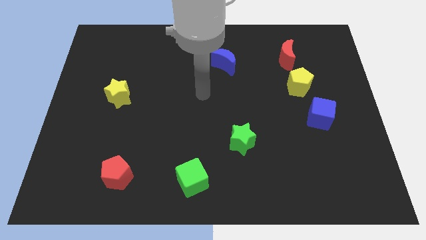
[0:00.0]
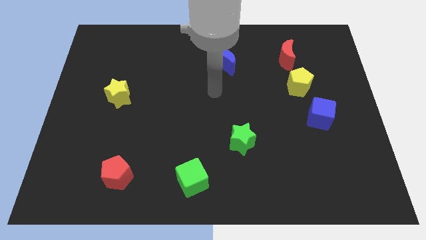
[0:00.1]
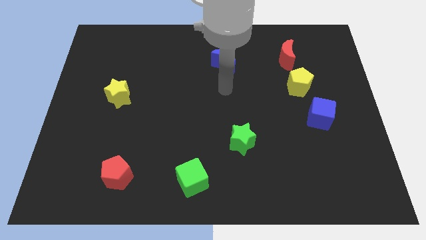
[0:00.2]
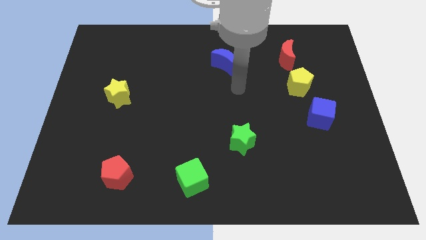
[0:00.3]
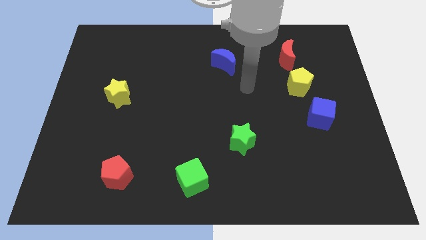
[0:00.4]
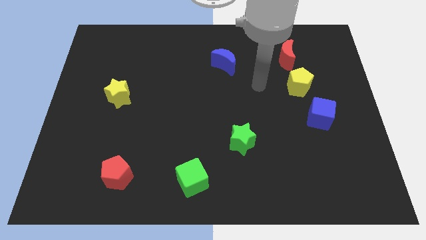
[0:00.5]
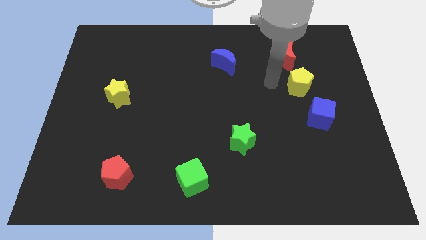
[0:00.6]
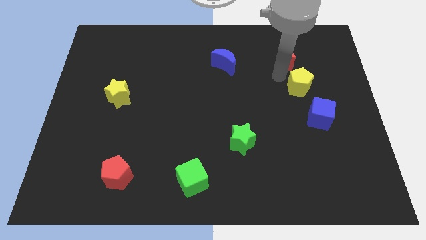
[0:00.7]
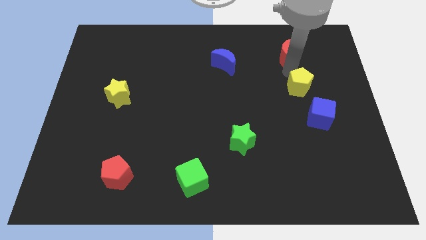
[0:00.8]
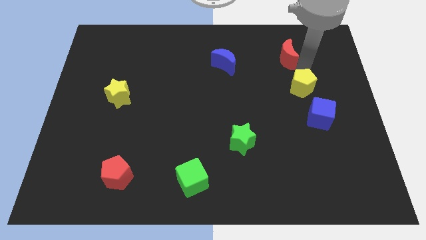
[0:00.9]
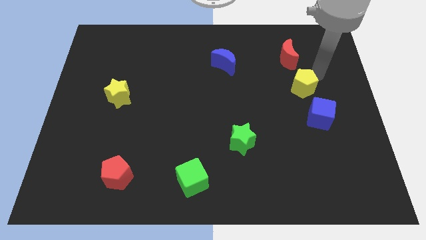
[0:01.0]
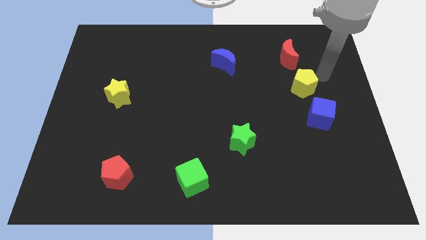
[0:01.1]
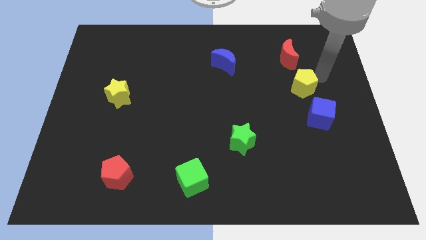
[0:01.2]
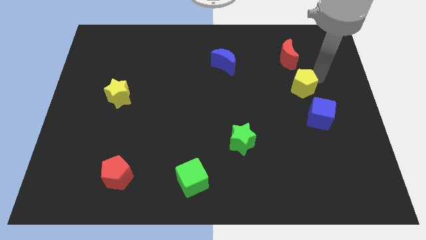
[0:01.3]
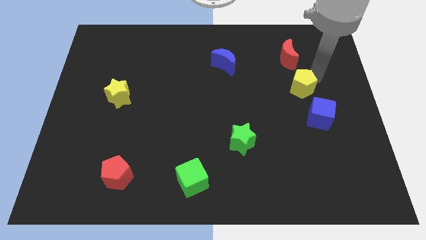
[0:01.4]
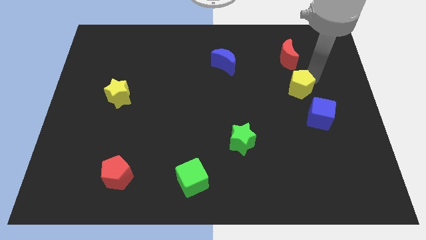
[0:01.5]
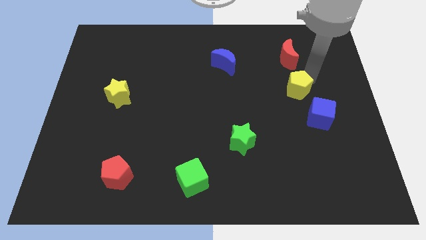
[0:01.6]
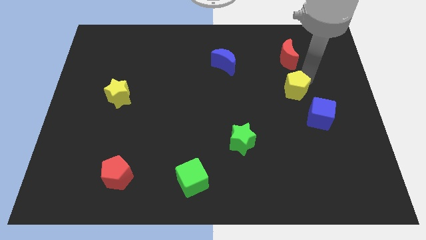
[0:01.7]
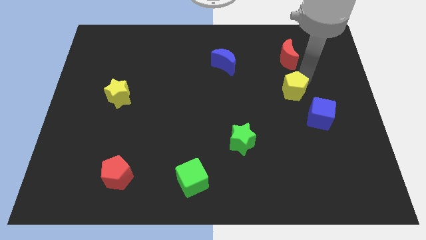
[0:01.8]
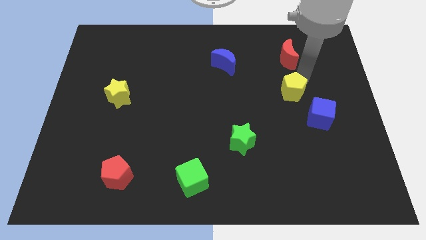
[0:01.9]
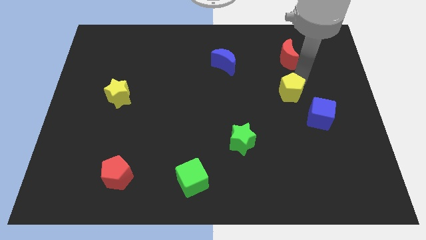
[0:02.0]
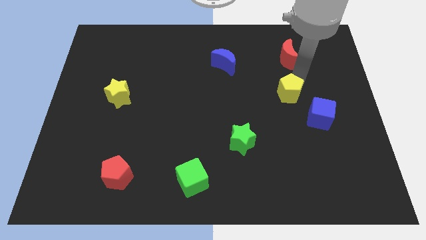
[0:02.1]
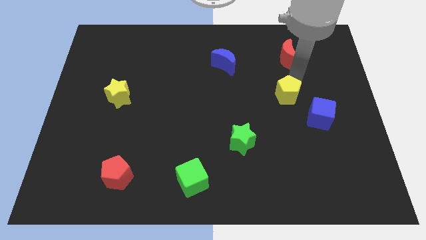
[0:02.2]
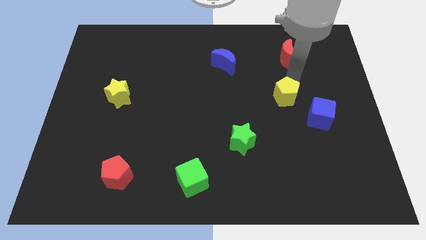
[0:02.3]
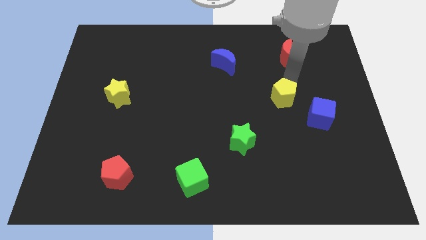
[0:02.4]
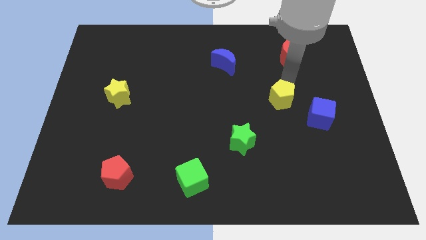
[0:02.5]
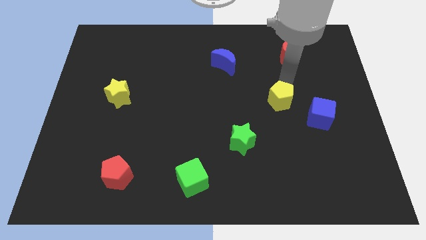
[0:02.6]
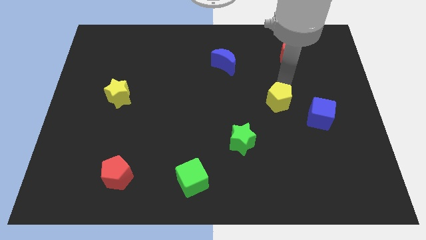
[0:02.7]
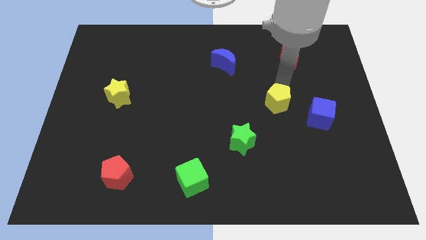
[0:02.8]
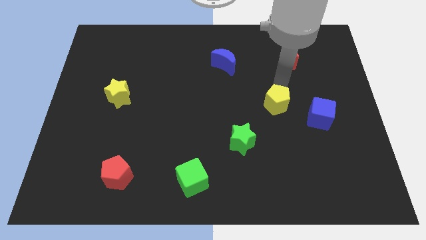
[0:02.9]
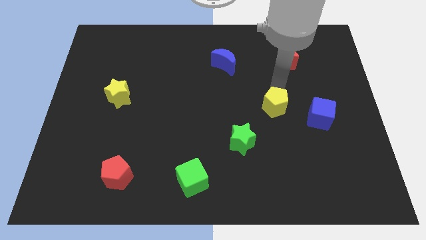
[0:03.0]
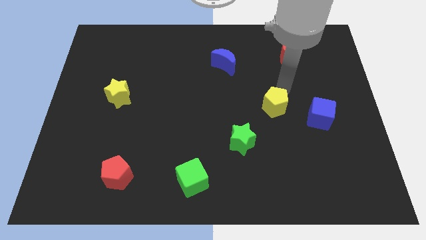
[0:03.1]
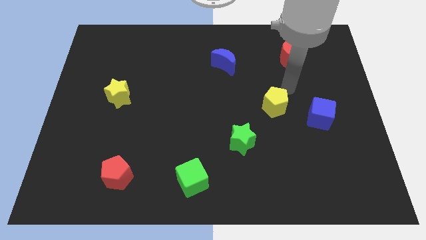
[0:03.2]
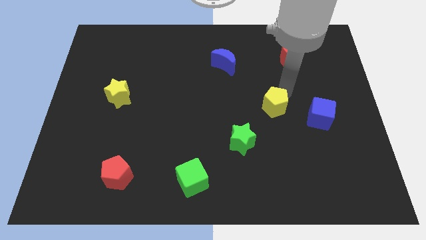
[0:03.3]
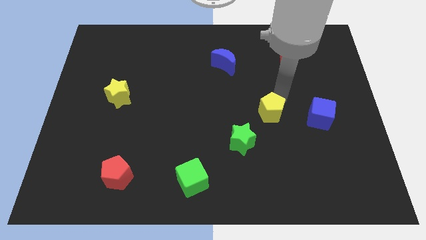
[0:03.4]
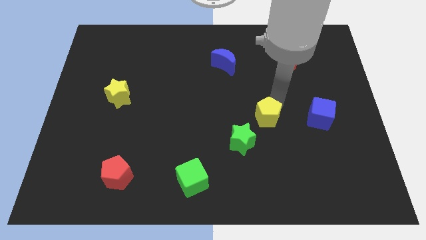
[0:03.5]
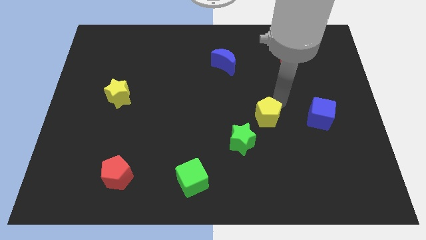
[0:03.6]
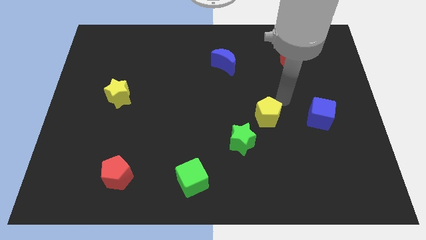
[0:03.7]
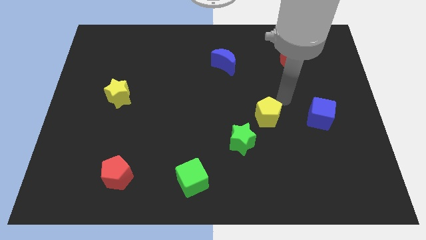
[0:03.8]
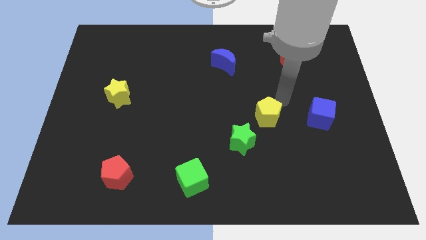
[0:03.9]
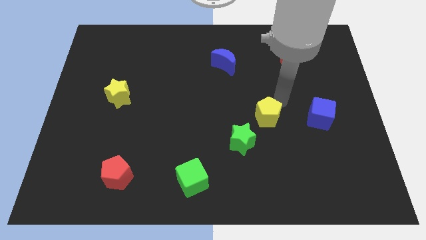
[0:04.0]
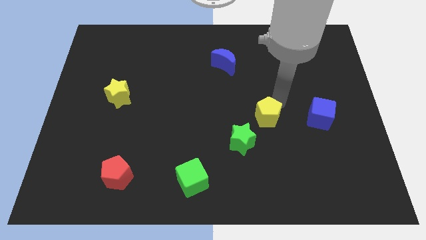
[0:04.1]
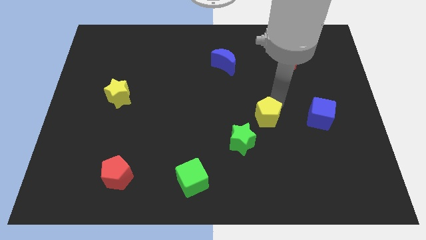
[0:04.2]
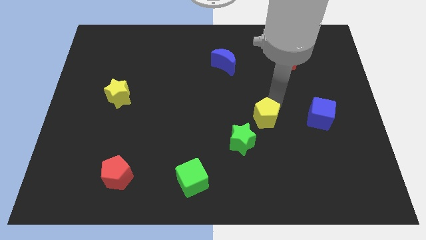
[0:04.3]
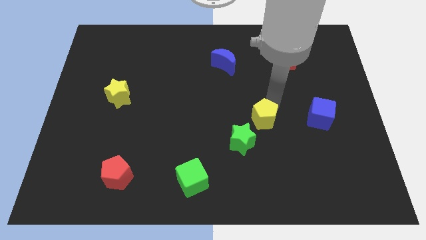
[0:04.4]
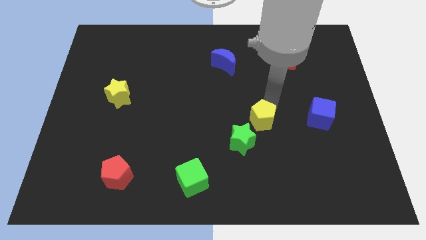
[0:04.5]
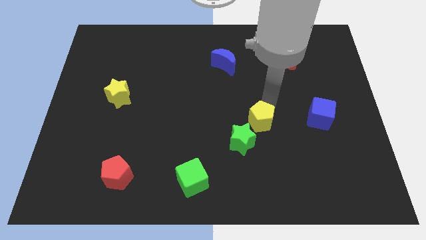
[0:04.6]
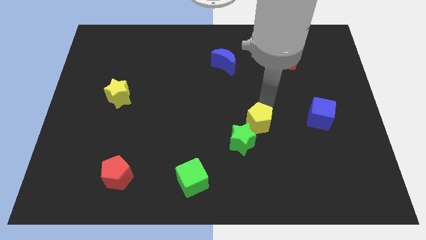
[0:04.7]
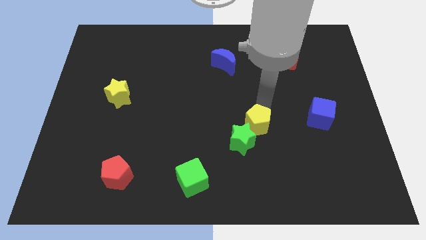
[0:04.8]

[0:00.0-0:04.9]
move the yellow pentagon next to the green star

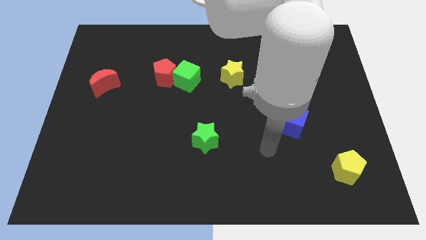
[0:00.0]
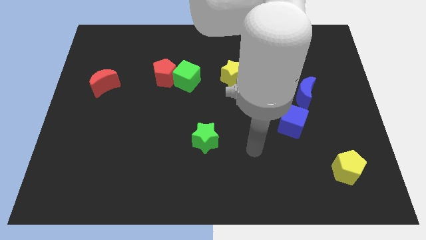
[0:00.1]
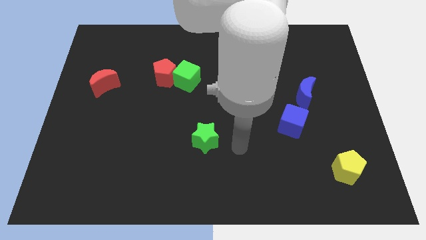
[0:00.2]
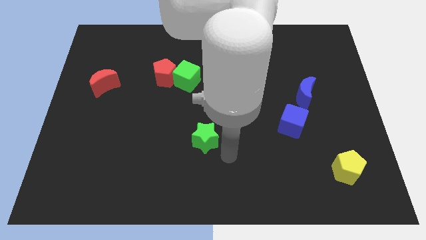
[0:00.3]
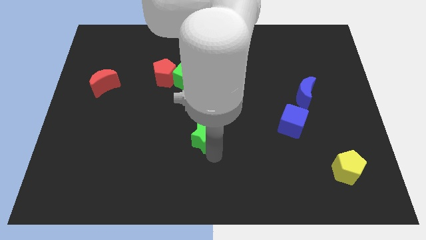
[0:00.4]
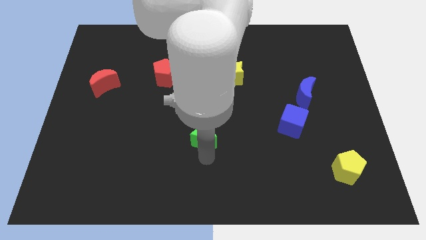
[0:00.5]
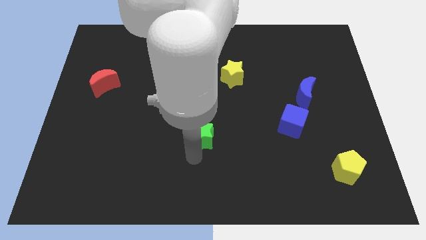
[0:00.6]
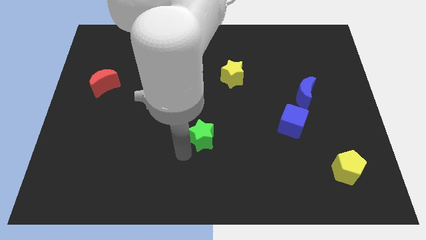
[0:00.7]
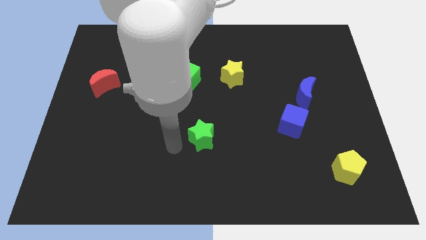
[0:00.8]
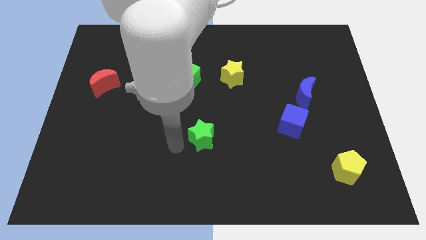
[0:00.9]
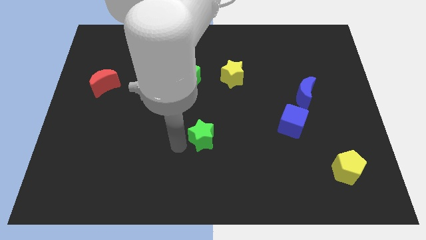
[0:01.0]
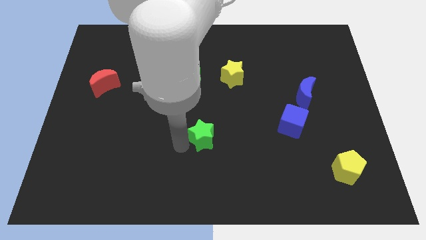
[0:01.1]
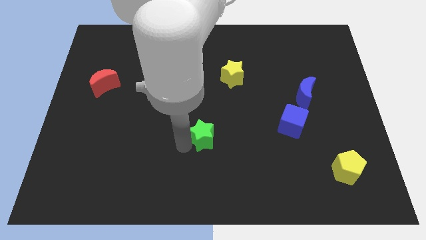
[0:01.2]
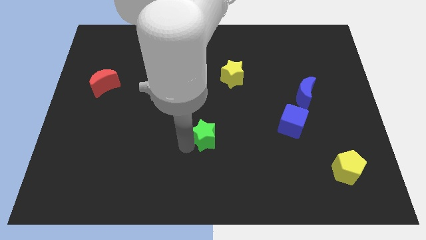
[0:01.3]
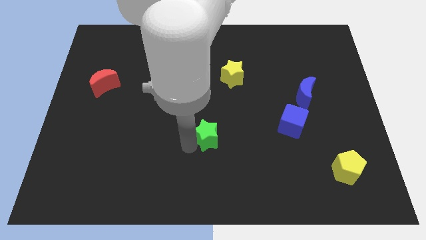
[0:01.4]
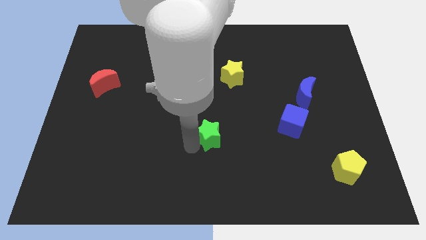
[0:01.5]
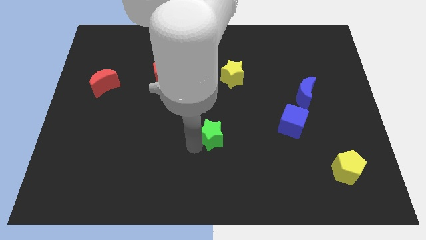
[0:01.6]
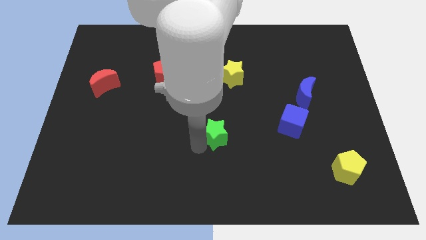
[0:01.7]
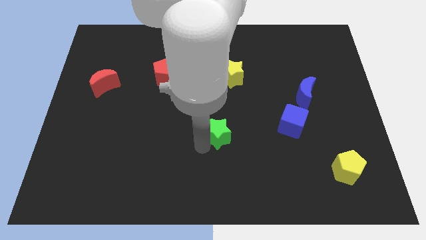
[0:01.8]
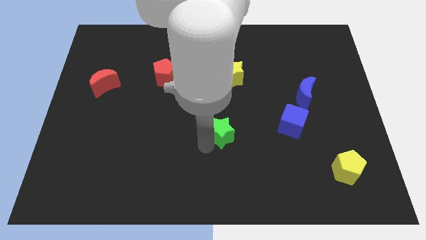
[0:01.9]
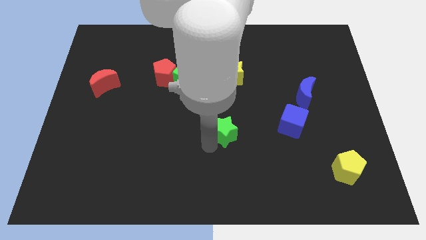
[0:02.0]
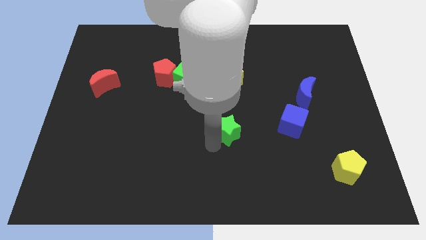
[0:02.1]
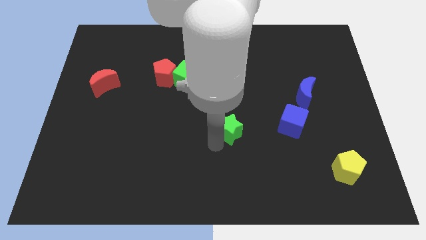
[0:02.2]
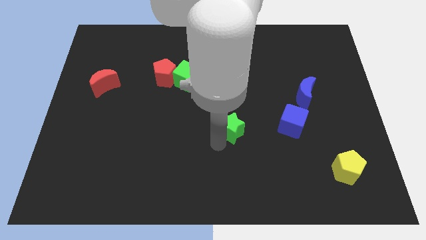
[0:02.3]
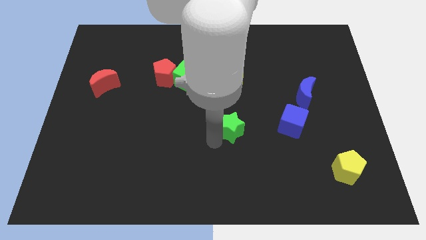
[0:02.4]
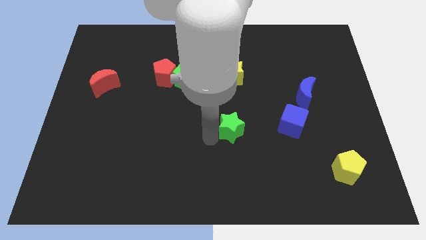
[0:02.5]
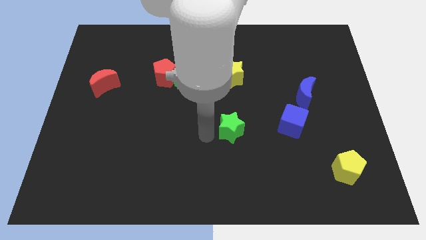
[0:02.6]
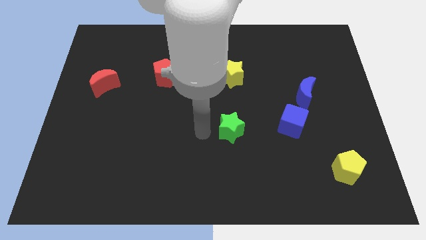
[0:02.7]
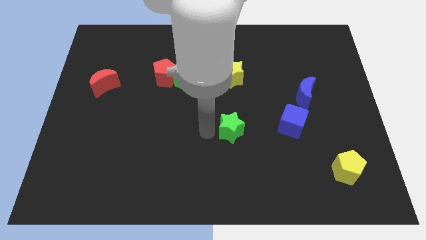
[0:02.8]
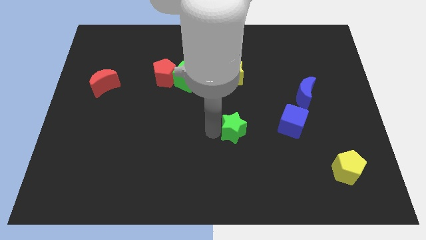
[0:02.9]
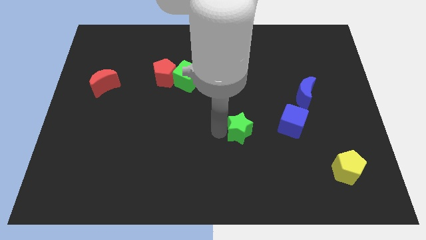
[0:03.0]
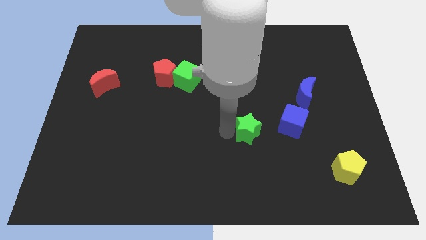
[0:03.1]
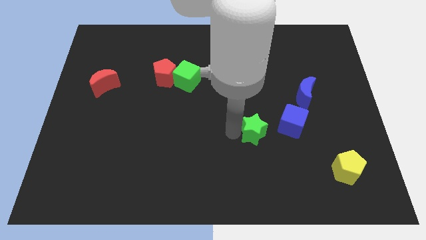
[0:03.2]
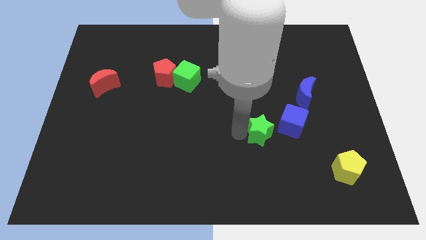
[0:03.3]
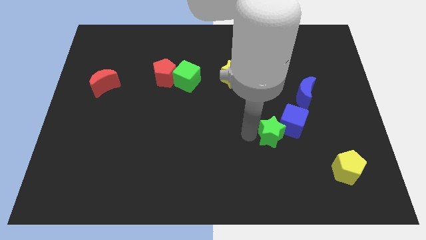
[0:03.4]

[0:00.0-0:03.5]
put the green star towards the blue cube
